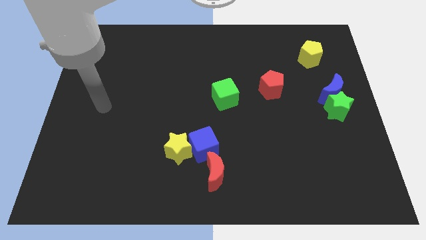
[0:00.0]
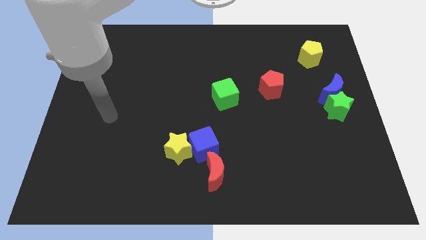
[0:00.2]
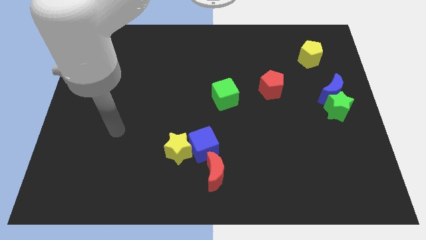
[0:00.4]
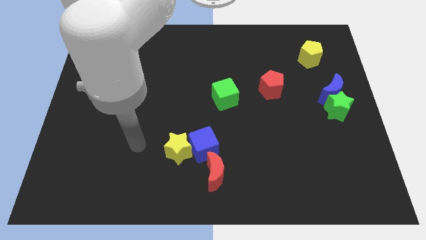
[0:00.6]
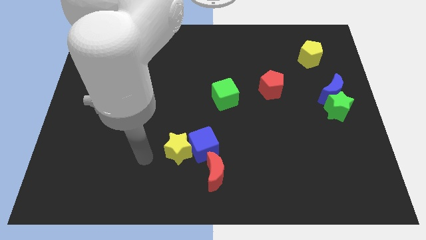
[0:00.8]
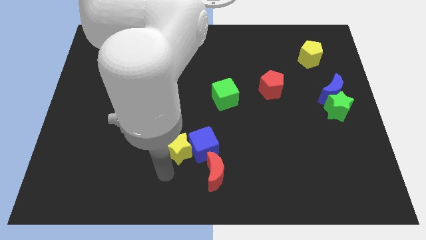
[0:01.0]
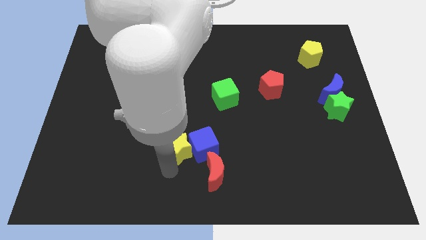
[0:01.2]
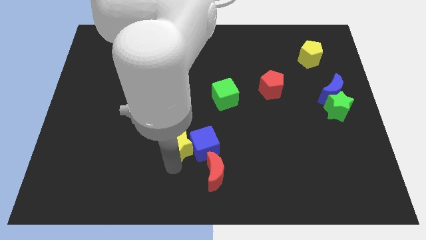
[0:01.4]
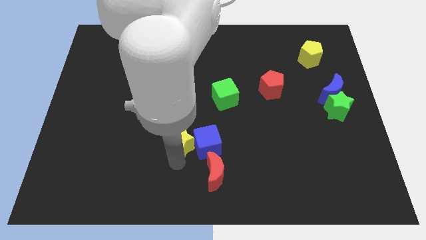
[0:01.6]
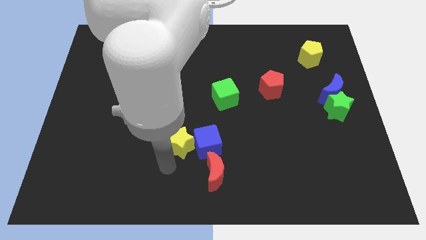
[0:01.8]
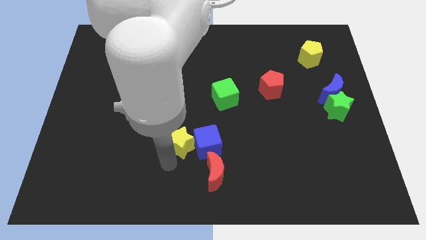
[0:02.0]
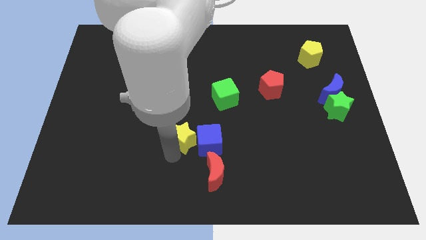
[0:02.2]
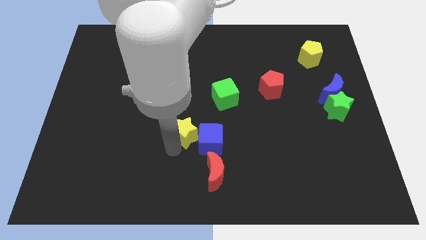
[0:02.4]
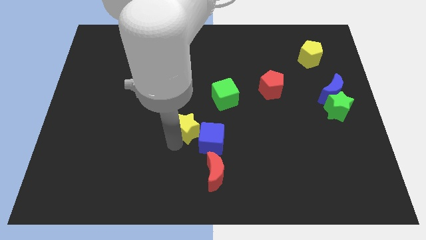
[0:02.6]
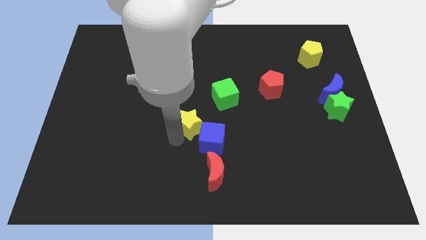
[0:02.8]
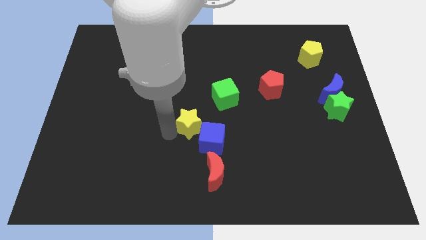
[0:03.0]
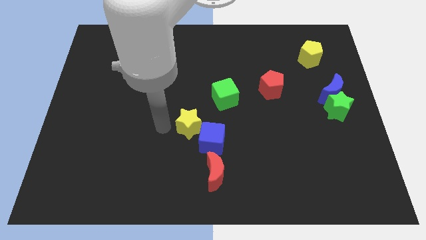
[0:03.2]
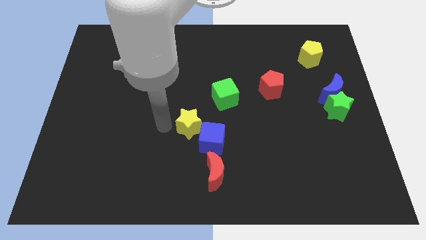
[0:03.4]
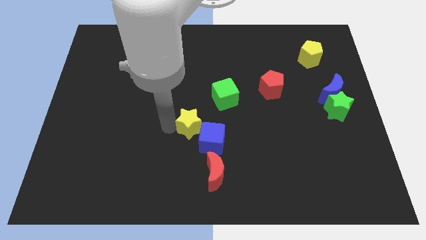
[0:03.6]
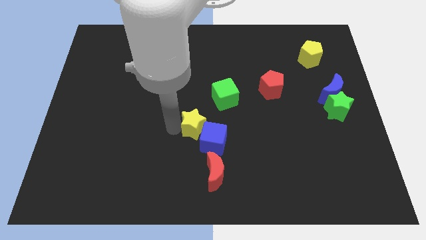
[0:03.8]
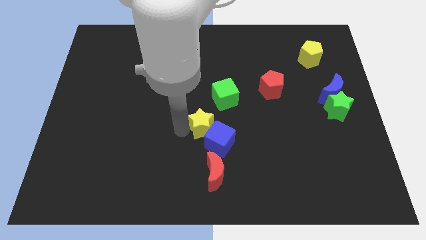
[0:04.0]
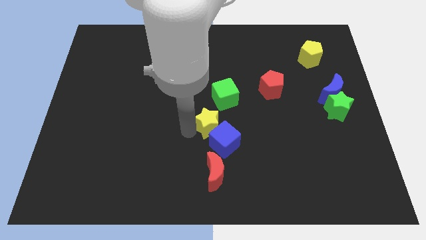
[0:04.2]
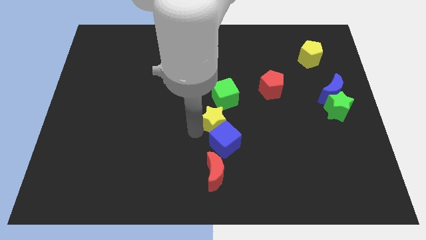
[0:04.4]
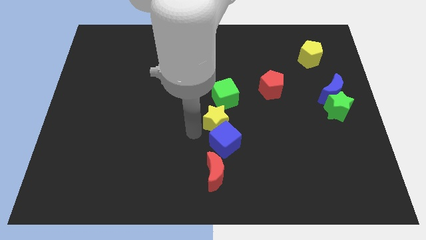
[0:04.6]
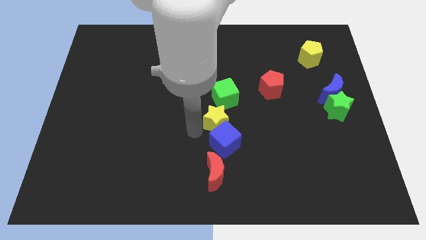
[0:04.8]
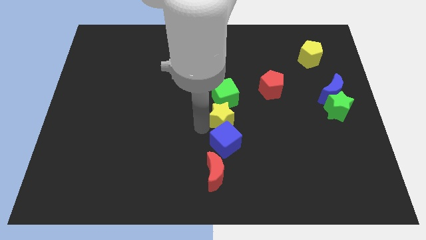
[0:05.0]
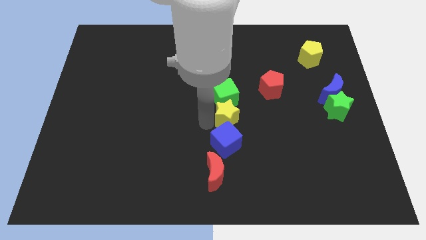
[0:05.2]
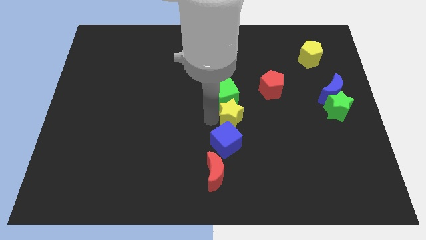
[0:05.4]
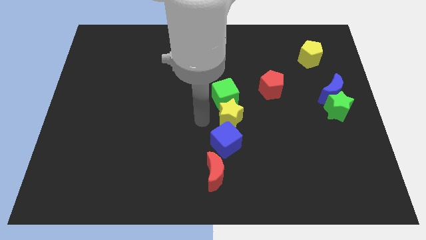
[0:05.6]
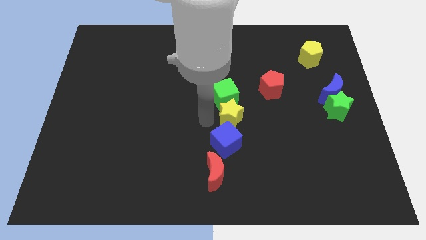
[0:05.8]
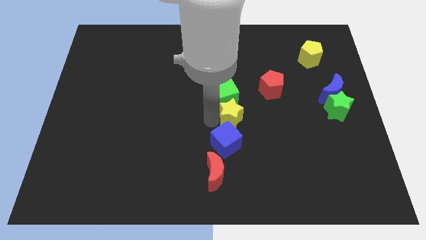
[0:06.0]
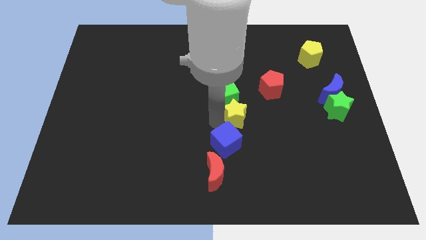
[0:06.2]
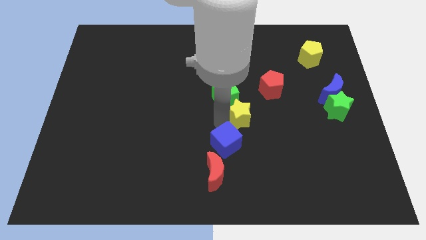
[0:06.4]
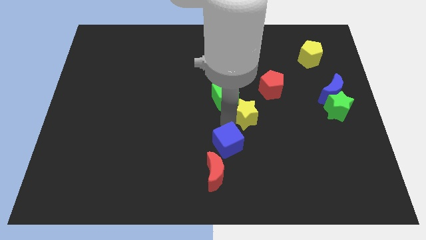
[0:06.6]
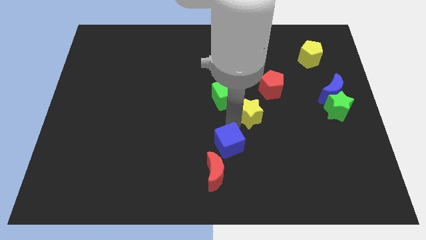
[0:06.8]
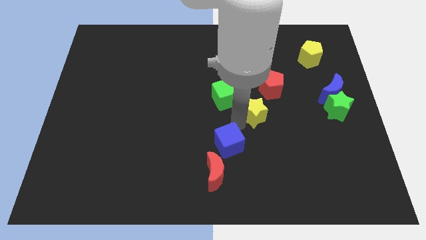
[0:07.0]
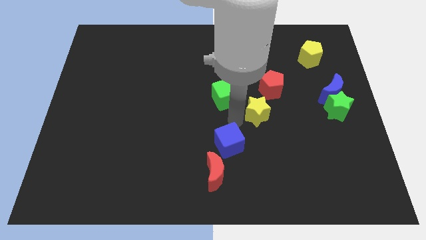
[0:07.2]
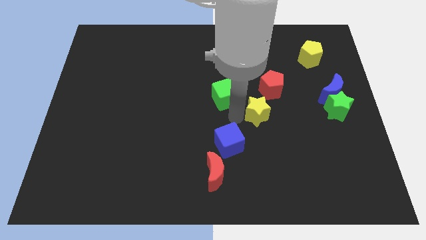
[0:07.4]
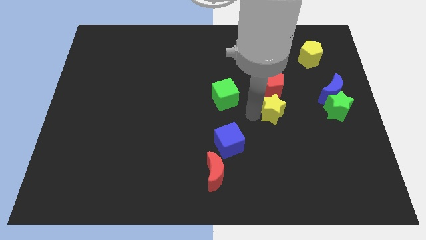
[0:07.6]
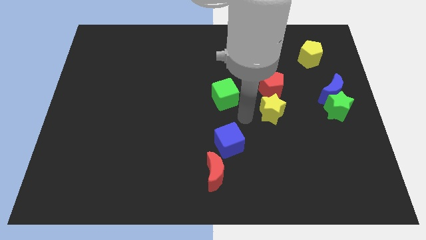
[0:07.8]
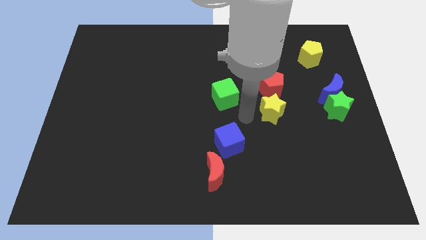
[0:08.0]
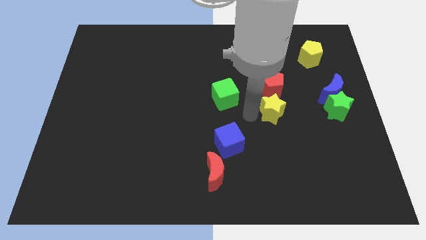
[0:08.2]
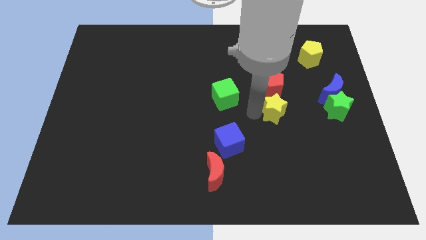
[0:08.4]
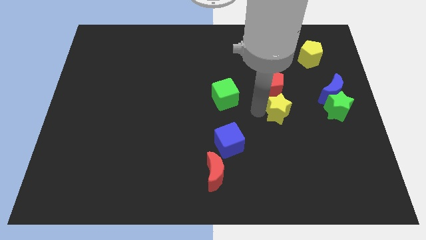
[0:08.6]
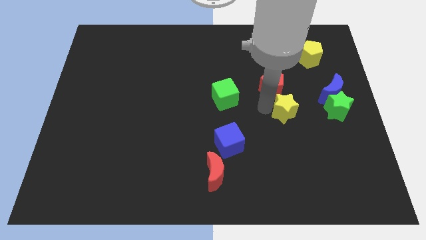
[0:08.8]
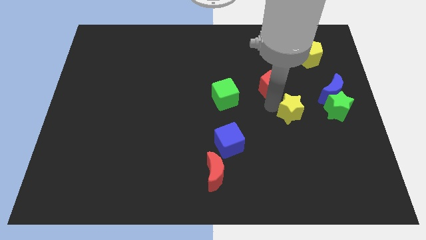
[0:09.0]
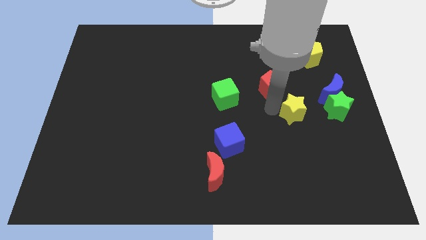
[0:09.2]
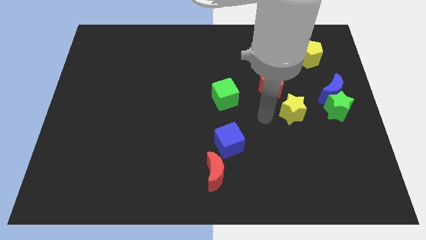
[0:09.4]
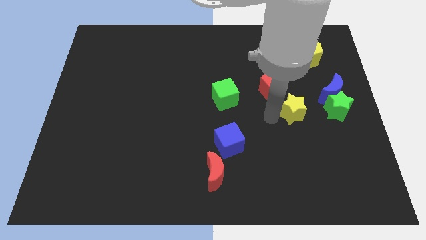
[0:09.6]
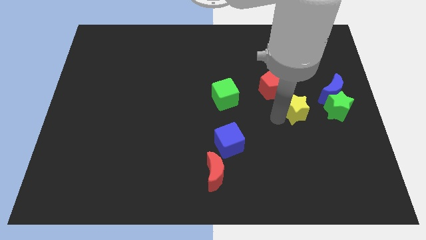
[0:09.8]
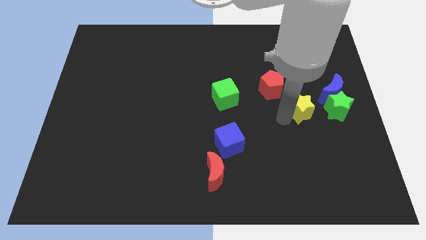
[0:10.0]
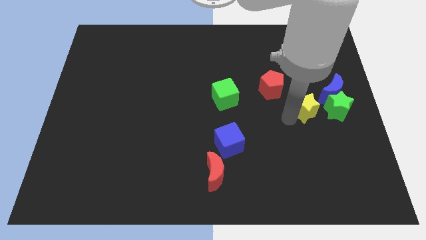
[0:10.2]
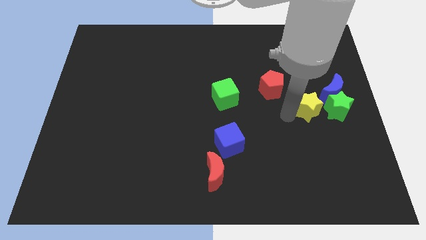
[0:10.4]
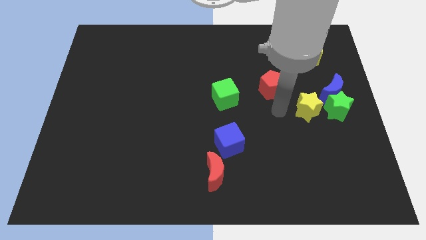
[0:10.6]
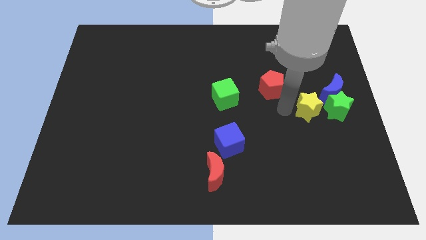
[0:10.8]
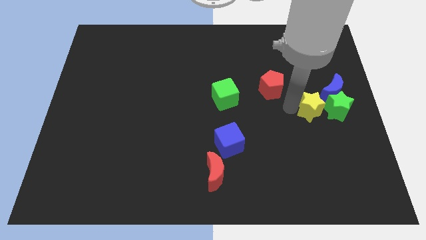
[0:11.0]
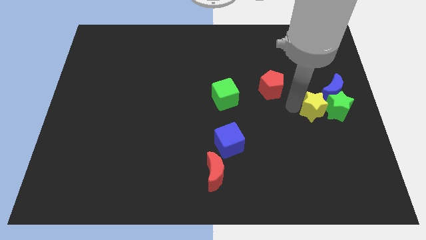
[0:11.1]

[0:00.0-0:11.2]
move the yellow star to the green star
